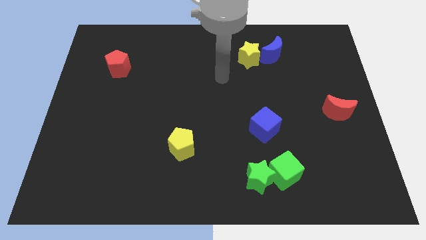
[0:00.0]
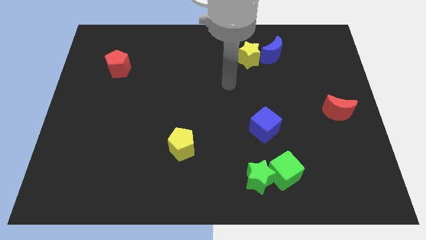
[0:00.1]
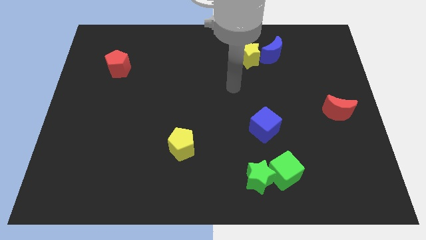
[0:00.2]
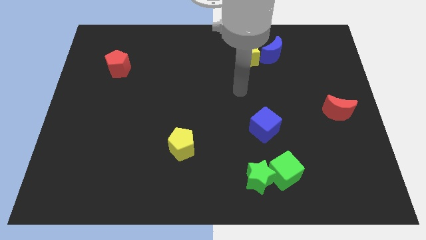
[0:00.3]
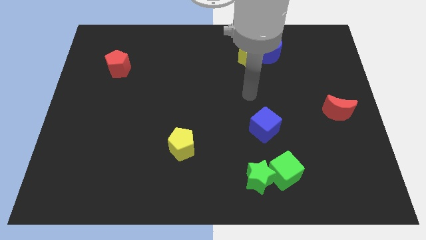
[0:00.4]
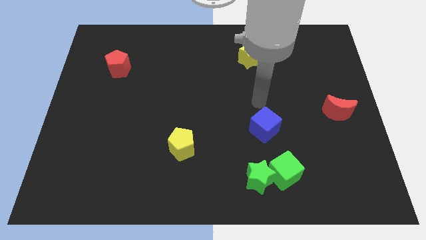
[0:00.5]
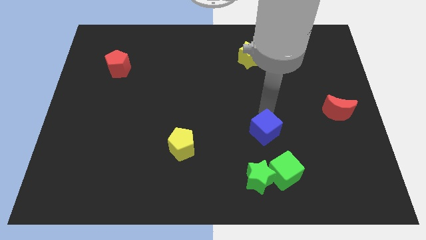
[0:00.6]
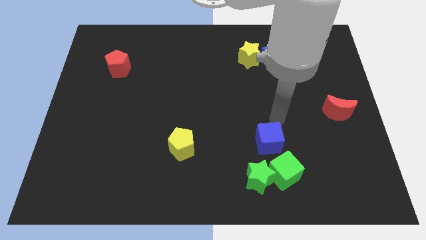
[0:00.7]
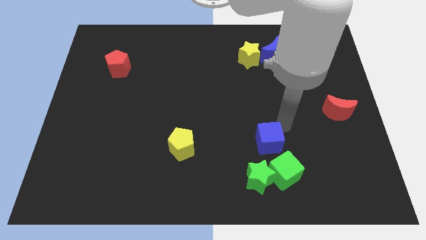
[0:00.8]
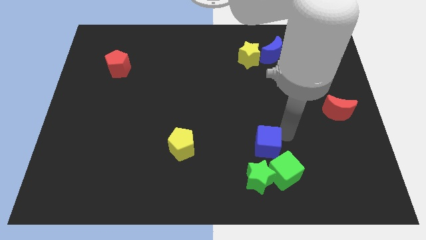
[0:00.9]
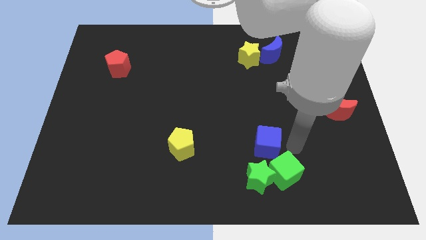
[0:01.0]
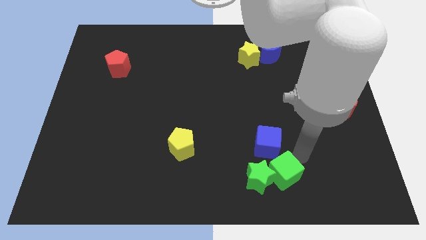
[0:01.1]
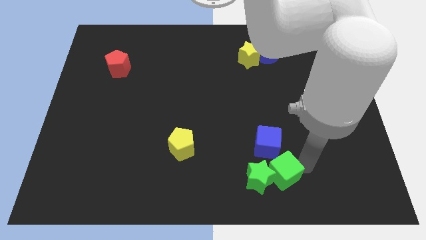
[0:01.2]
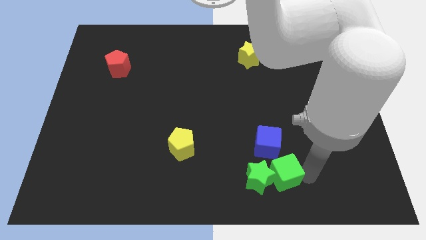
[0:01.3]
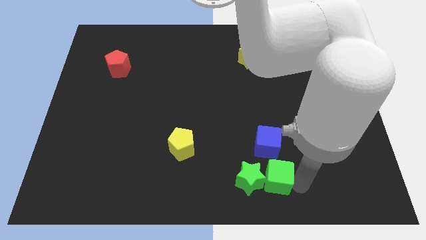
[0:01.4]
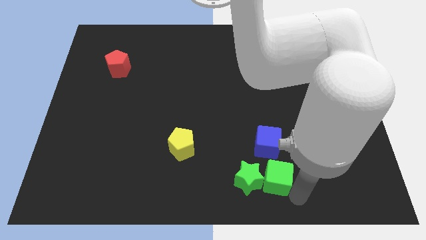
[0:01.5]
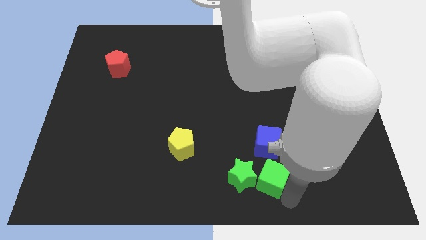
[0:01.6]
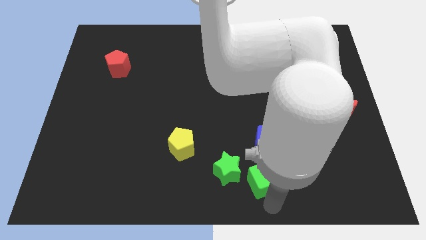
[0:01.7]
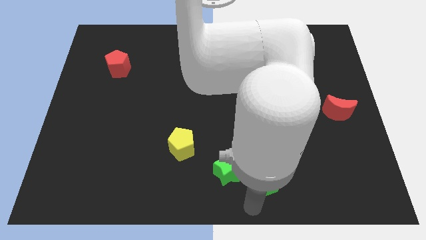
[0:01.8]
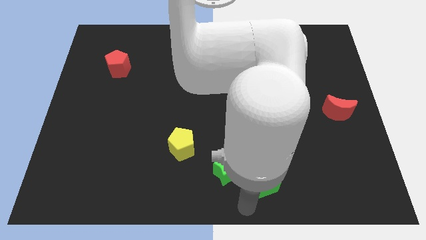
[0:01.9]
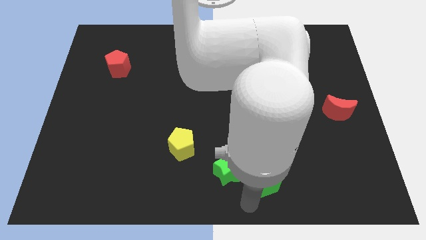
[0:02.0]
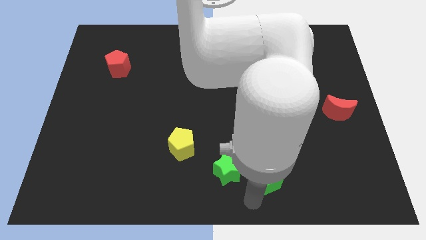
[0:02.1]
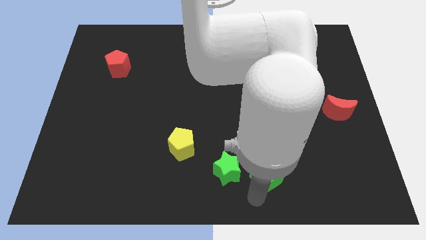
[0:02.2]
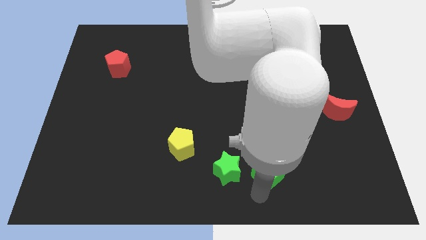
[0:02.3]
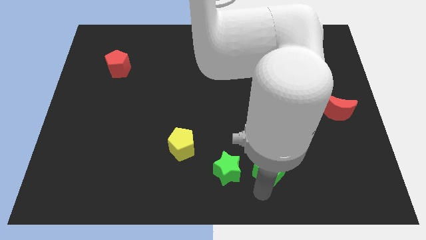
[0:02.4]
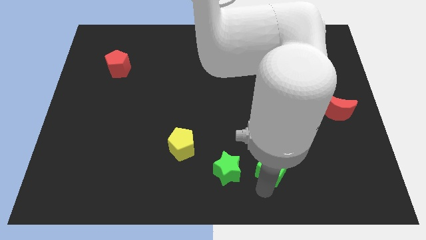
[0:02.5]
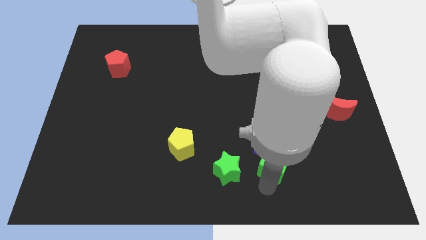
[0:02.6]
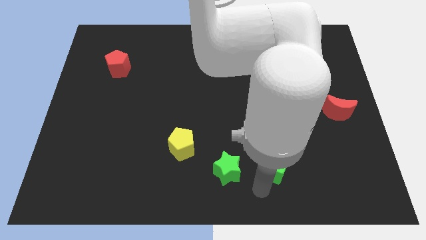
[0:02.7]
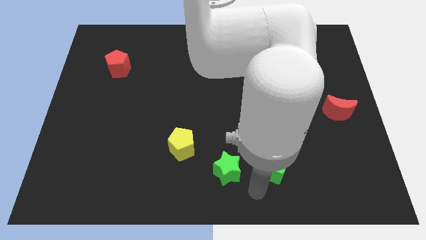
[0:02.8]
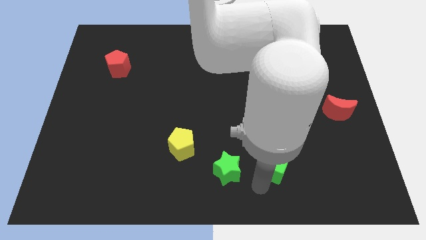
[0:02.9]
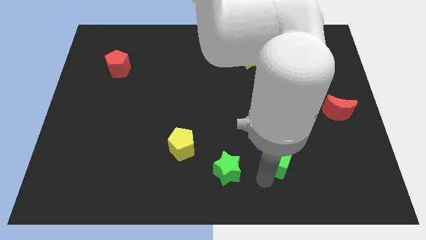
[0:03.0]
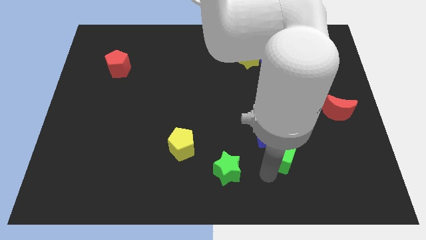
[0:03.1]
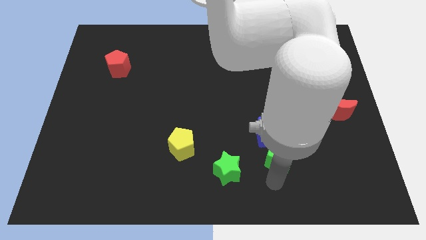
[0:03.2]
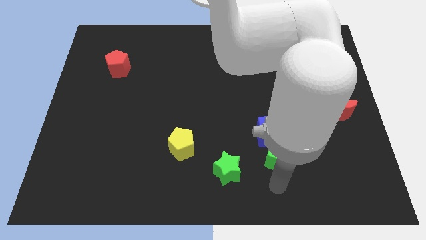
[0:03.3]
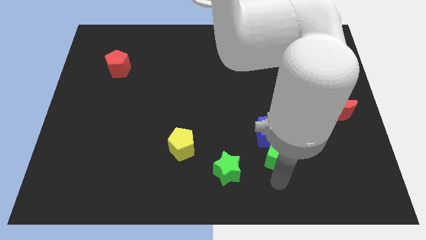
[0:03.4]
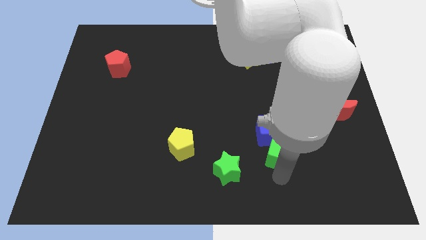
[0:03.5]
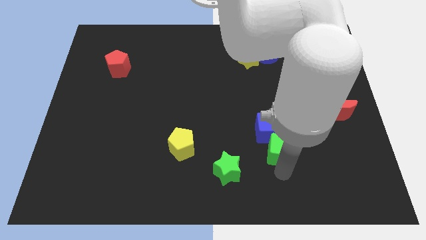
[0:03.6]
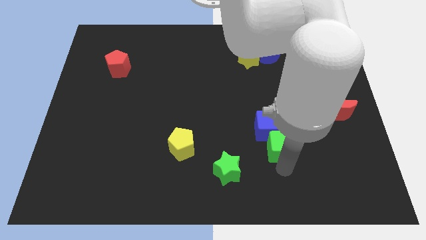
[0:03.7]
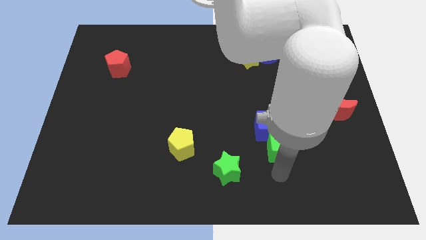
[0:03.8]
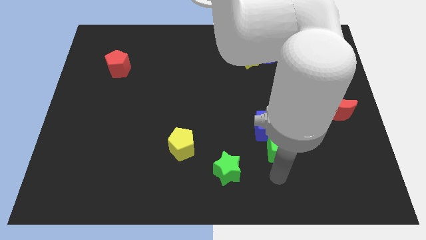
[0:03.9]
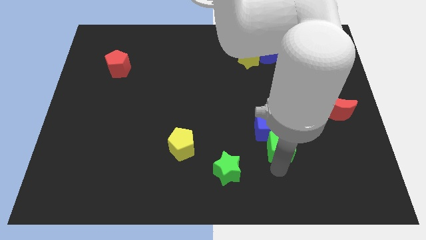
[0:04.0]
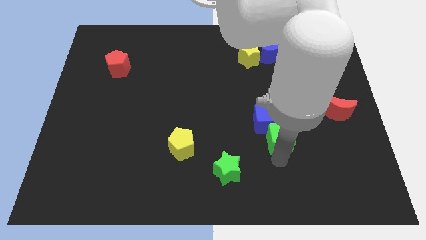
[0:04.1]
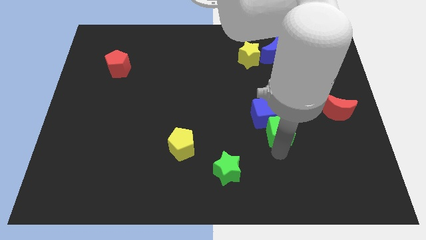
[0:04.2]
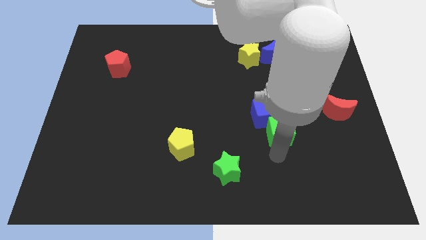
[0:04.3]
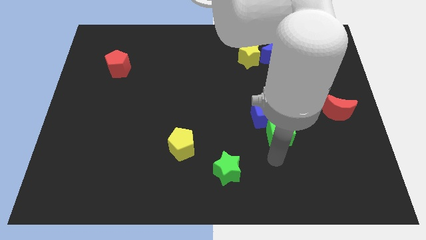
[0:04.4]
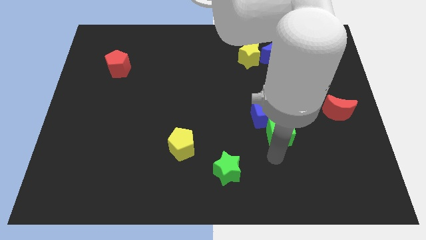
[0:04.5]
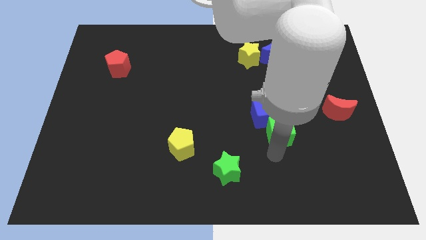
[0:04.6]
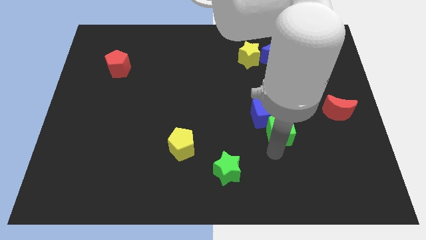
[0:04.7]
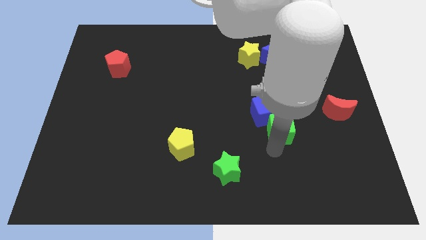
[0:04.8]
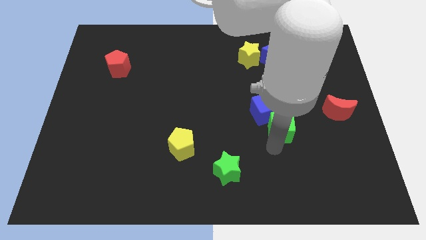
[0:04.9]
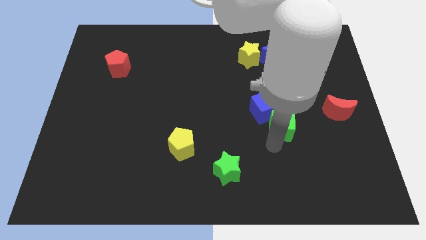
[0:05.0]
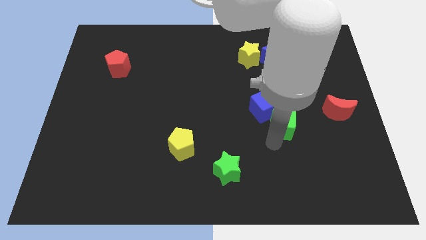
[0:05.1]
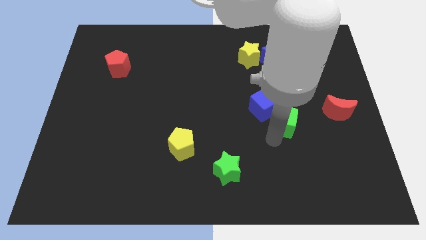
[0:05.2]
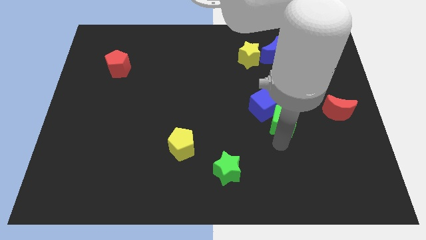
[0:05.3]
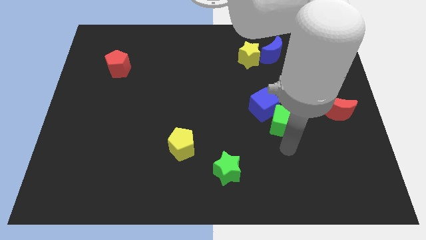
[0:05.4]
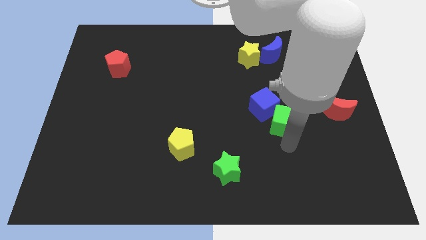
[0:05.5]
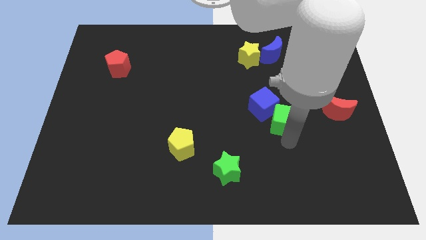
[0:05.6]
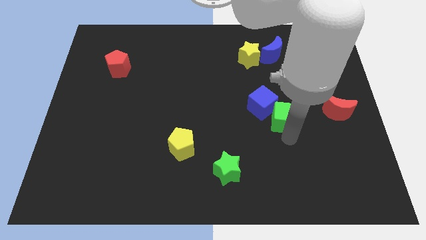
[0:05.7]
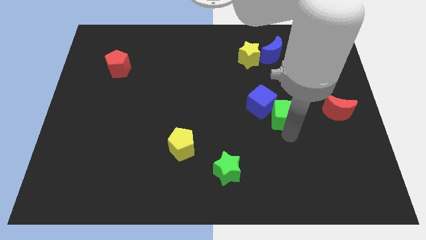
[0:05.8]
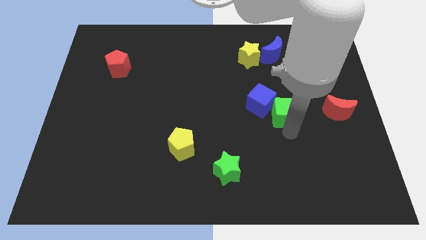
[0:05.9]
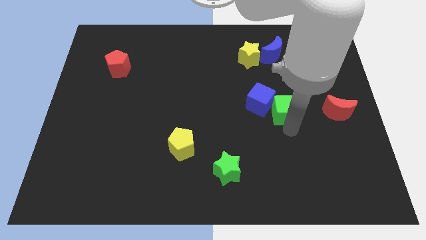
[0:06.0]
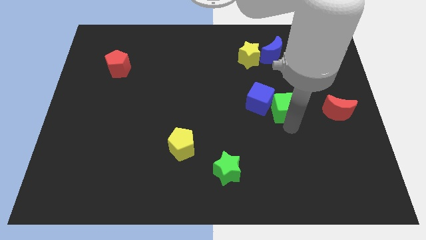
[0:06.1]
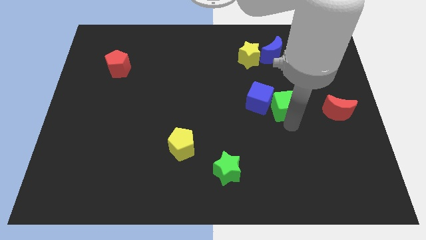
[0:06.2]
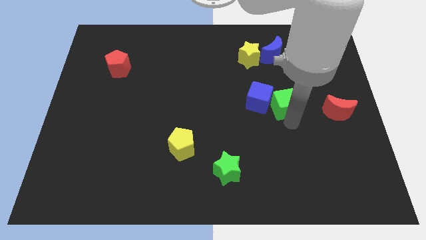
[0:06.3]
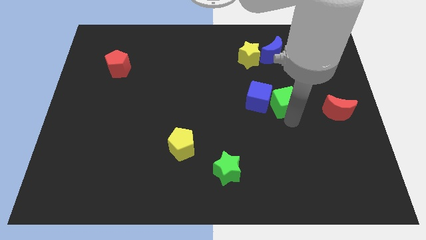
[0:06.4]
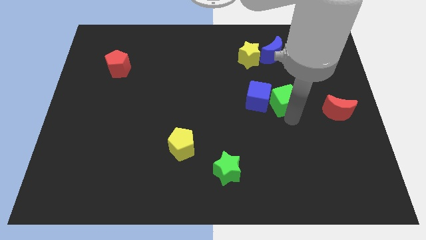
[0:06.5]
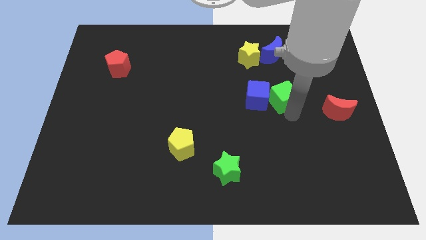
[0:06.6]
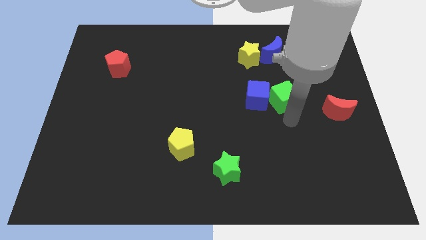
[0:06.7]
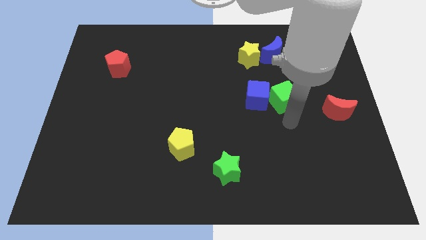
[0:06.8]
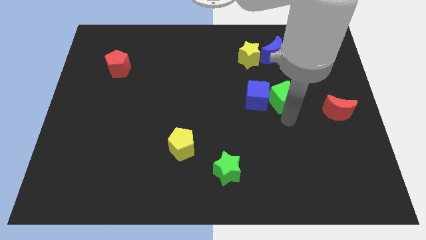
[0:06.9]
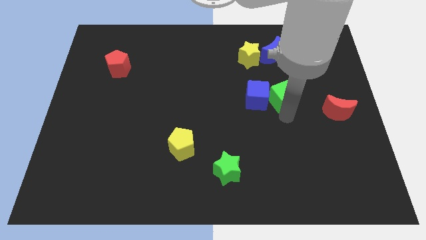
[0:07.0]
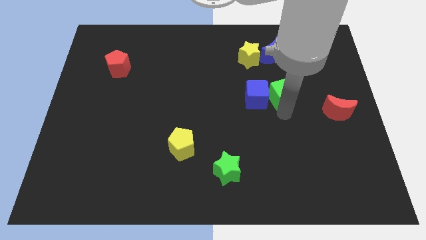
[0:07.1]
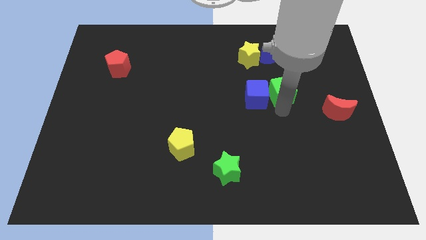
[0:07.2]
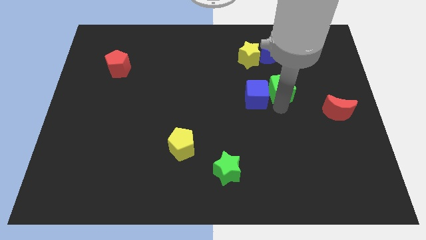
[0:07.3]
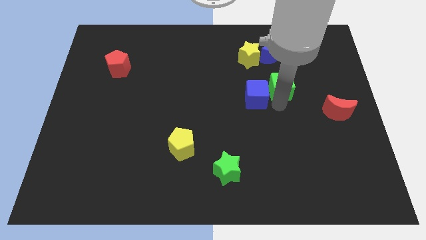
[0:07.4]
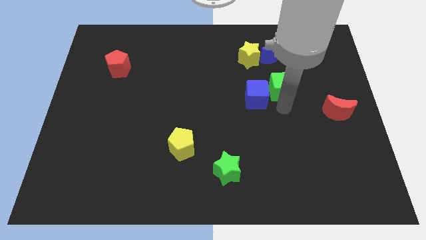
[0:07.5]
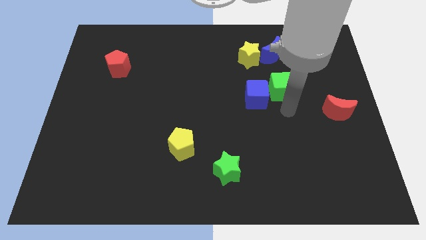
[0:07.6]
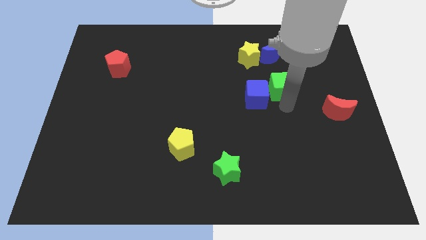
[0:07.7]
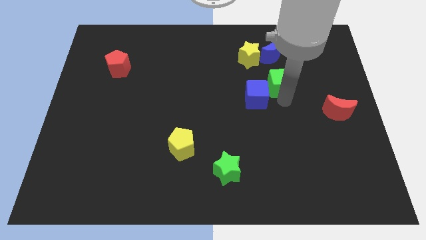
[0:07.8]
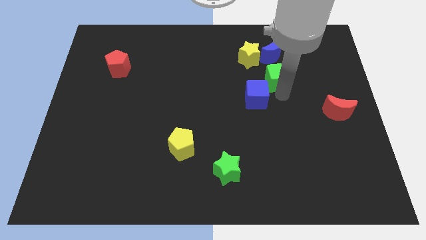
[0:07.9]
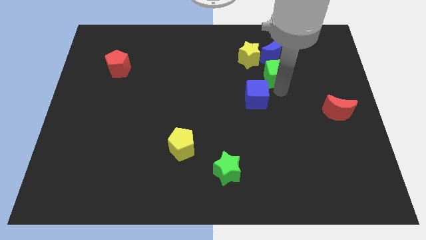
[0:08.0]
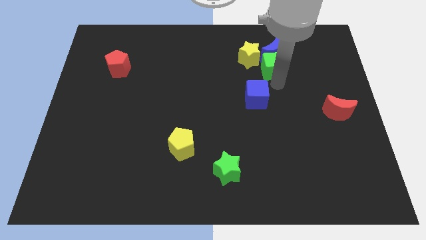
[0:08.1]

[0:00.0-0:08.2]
move the green cube to the blue moon
